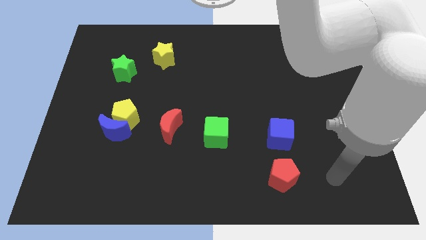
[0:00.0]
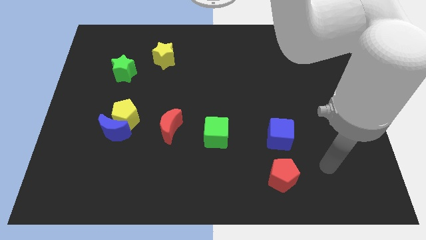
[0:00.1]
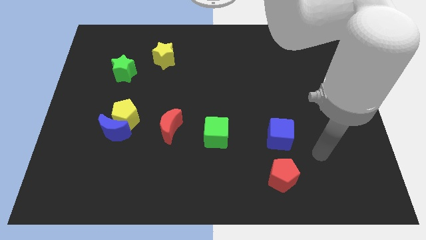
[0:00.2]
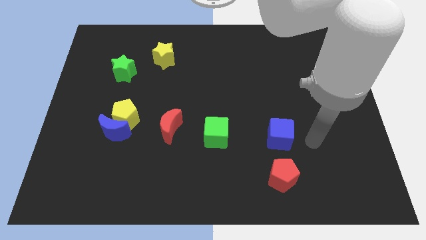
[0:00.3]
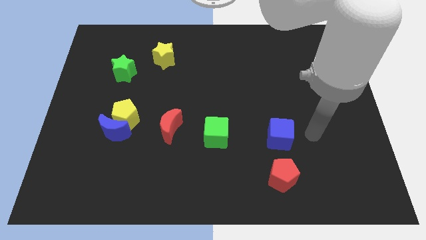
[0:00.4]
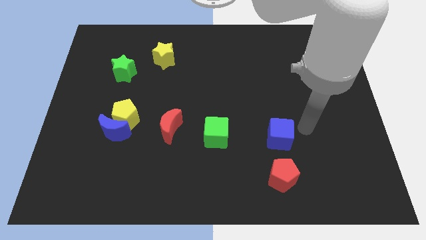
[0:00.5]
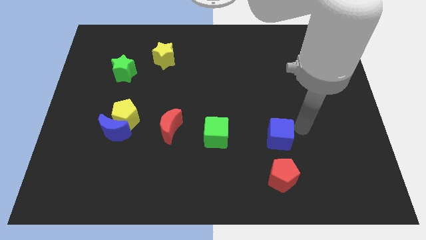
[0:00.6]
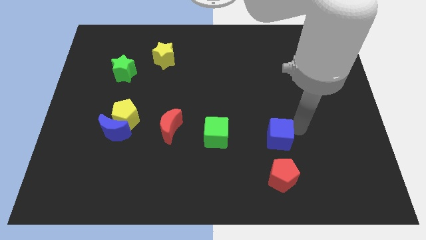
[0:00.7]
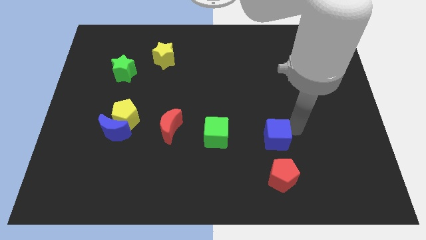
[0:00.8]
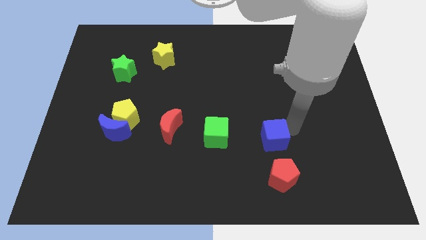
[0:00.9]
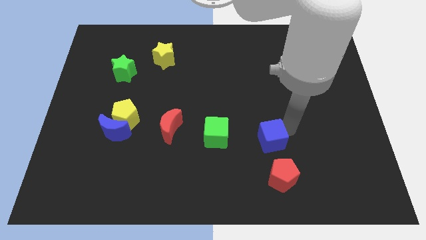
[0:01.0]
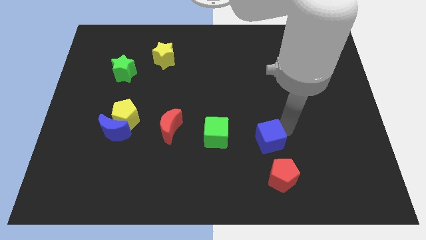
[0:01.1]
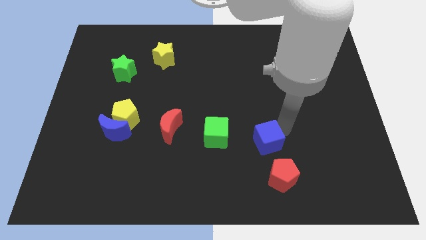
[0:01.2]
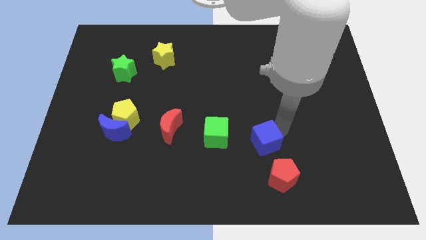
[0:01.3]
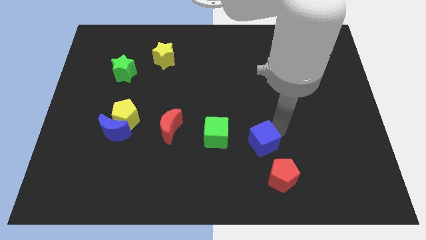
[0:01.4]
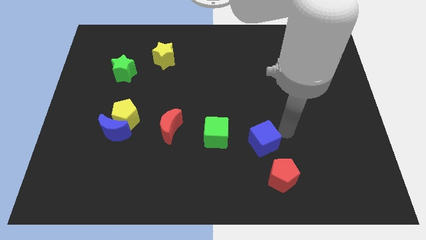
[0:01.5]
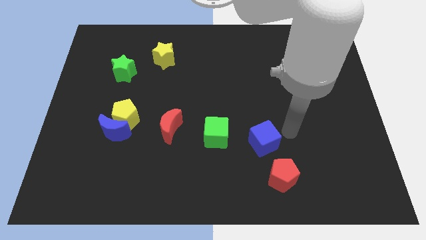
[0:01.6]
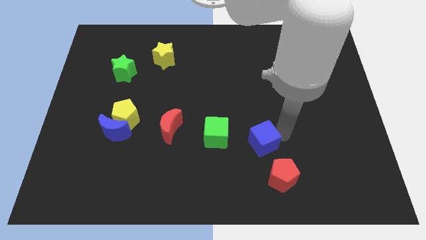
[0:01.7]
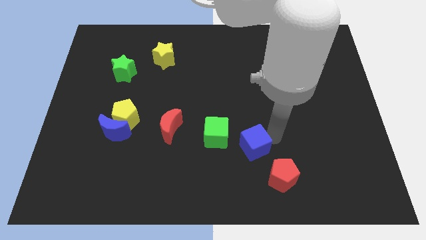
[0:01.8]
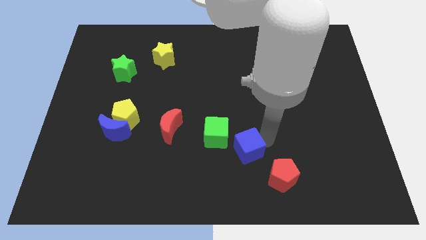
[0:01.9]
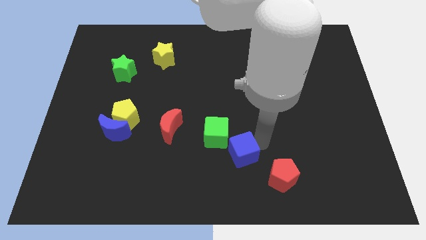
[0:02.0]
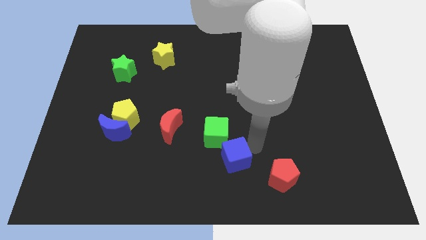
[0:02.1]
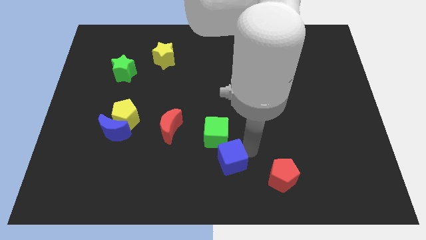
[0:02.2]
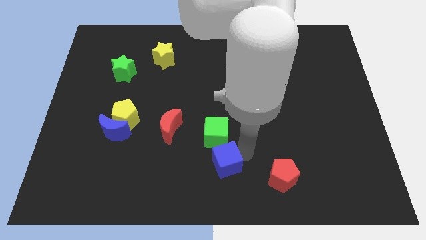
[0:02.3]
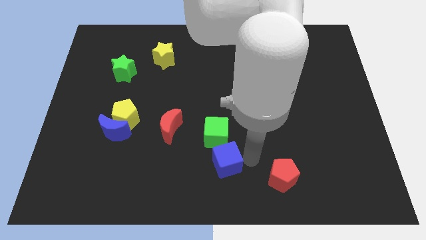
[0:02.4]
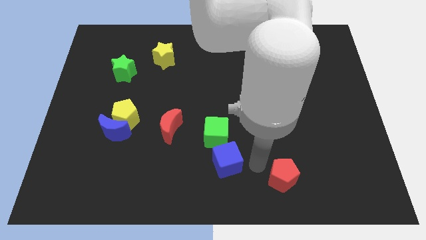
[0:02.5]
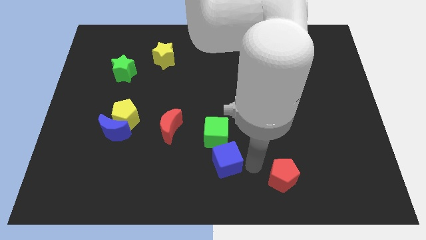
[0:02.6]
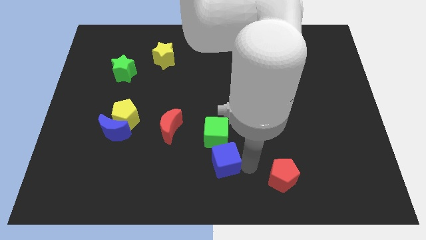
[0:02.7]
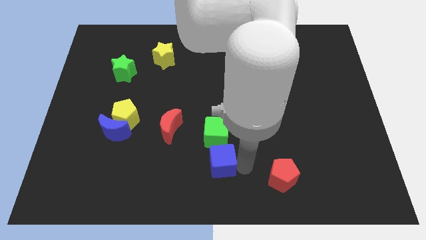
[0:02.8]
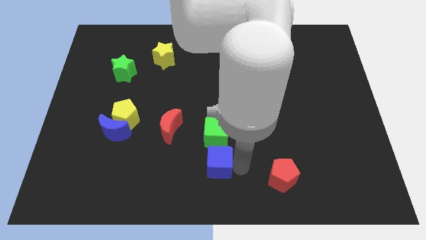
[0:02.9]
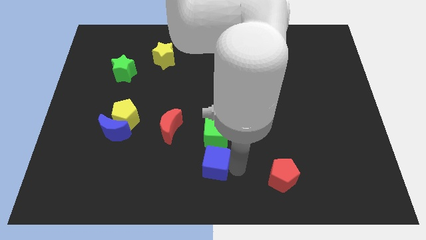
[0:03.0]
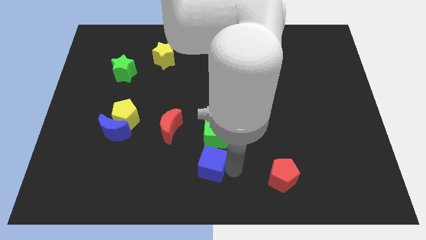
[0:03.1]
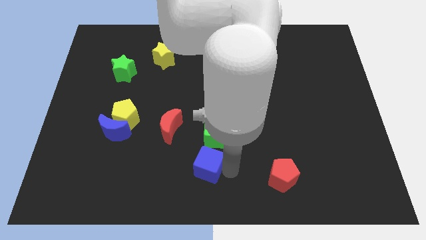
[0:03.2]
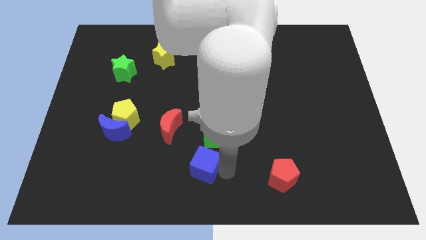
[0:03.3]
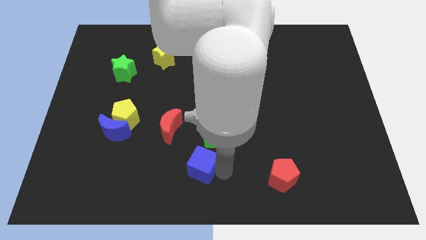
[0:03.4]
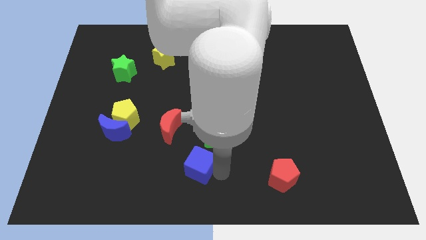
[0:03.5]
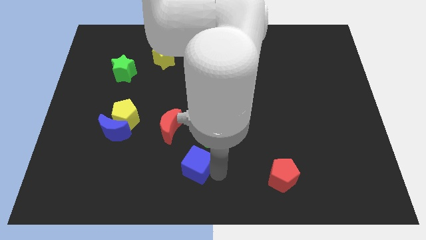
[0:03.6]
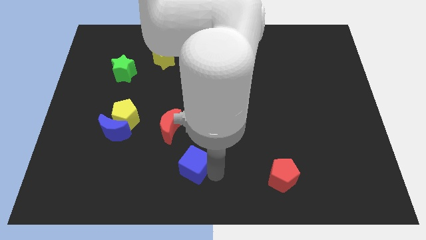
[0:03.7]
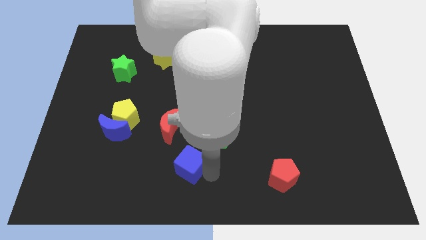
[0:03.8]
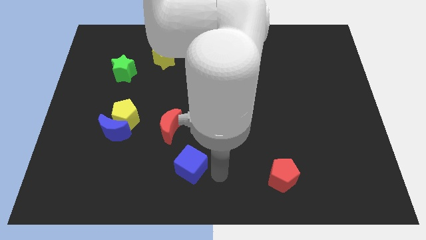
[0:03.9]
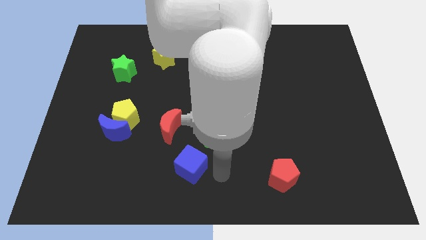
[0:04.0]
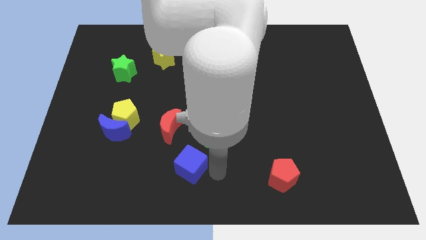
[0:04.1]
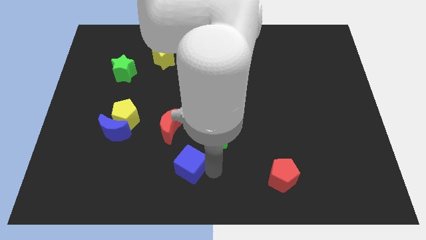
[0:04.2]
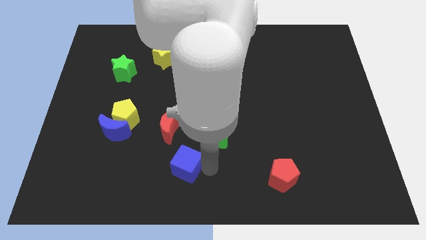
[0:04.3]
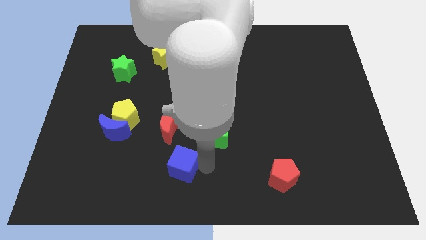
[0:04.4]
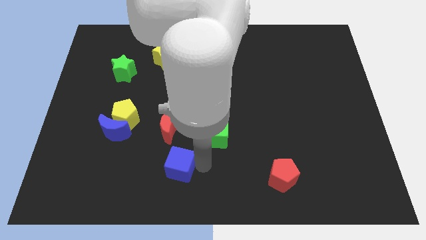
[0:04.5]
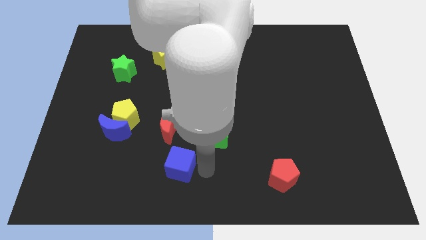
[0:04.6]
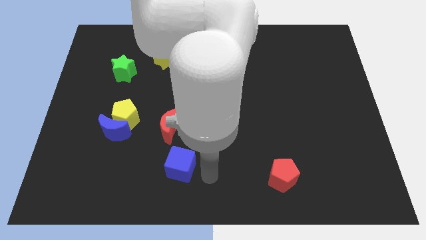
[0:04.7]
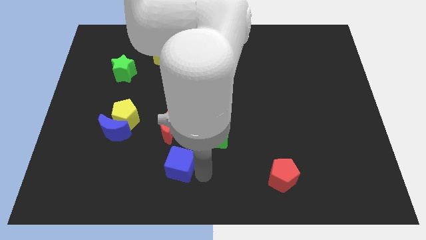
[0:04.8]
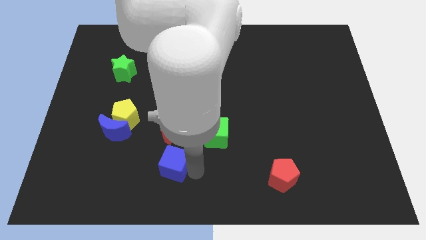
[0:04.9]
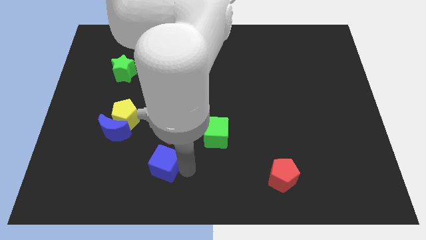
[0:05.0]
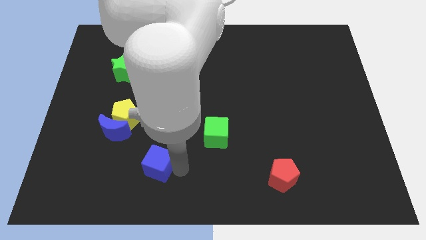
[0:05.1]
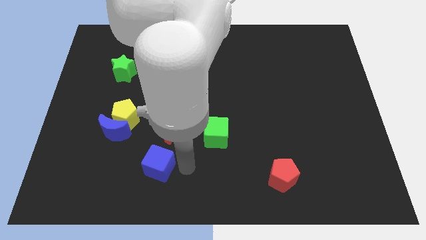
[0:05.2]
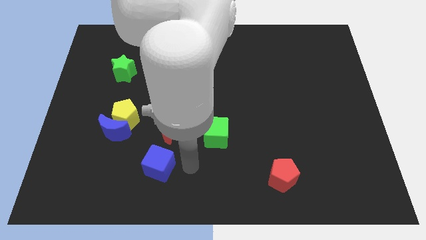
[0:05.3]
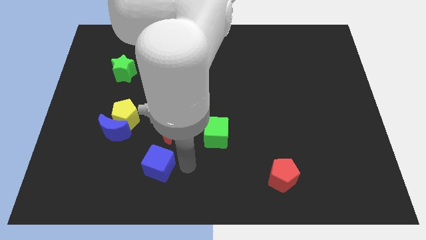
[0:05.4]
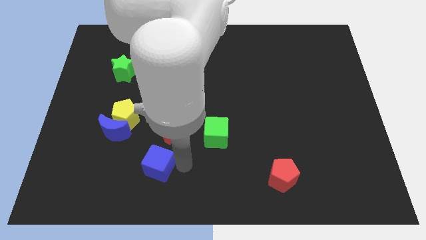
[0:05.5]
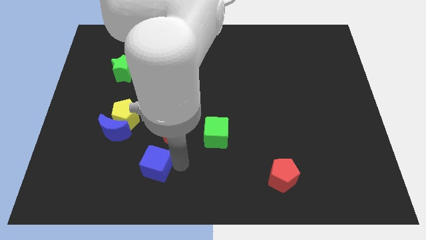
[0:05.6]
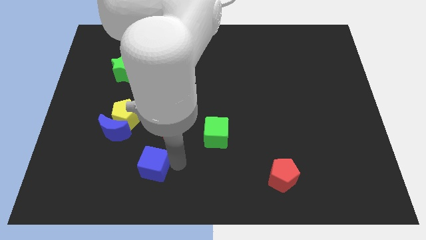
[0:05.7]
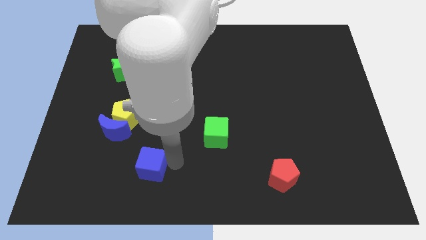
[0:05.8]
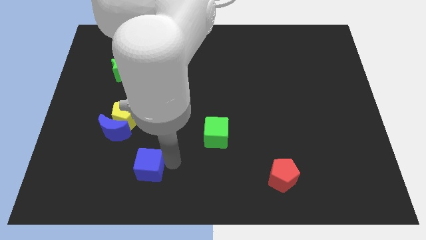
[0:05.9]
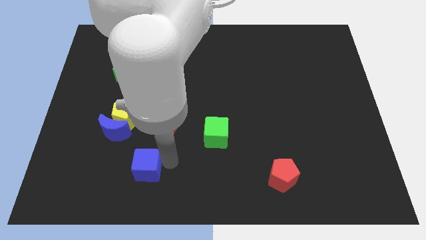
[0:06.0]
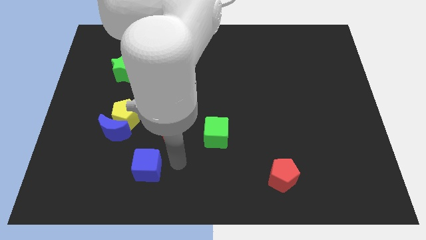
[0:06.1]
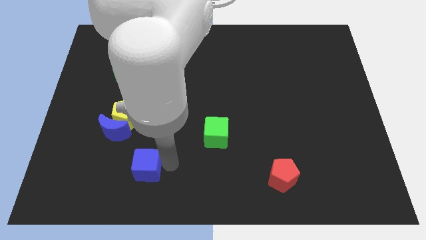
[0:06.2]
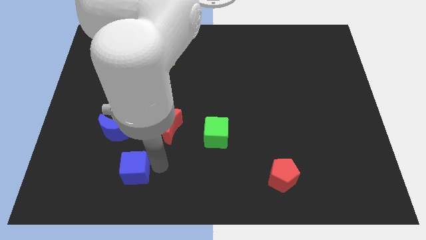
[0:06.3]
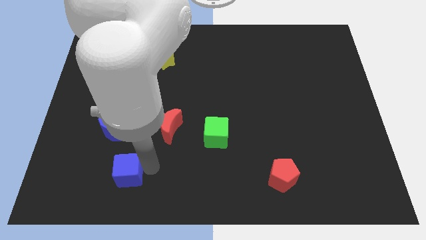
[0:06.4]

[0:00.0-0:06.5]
push the blue cube to the bottom side of the blue moon
